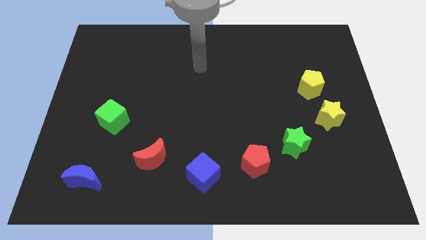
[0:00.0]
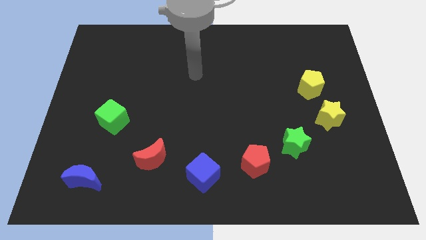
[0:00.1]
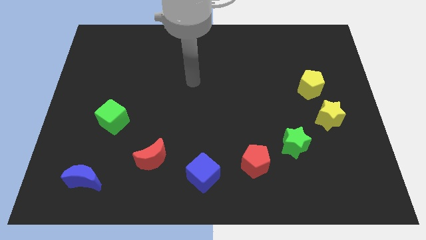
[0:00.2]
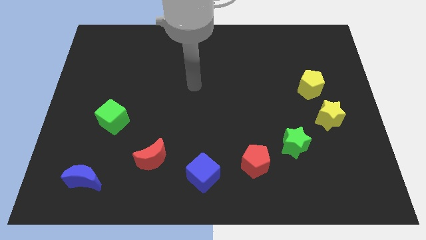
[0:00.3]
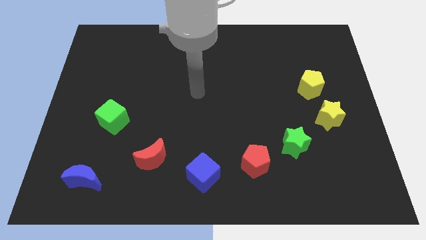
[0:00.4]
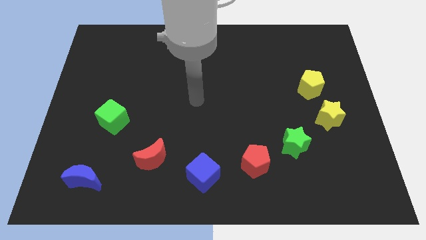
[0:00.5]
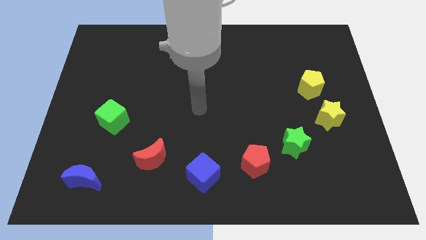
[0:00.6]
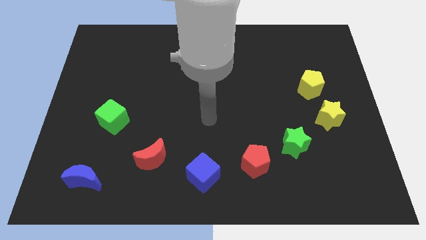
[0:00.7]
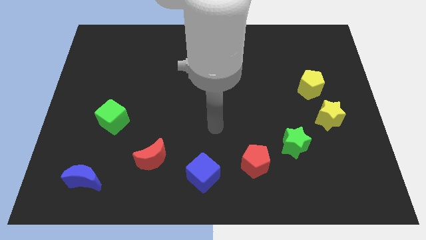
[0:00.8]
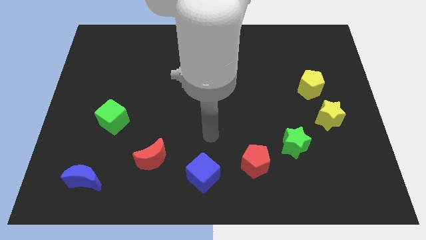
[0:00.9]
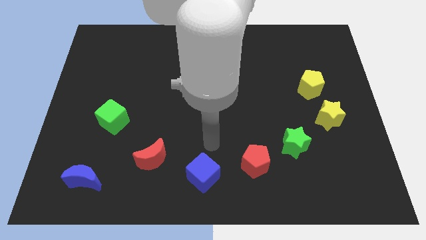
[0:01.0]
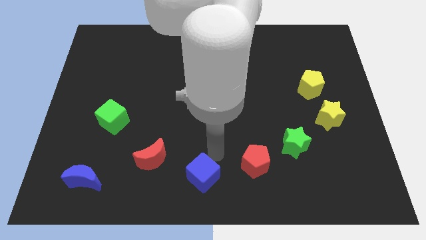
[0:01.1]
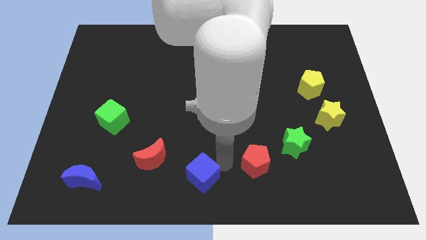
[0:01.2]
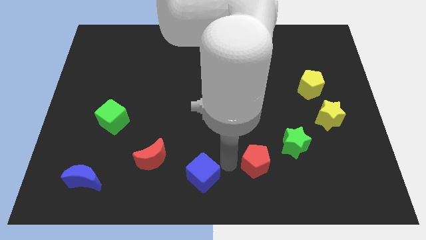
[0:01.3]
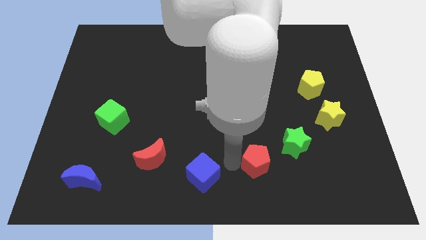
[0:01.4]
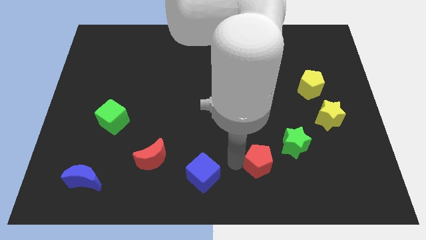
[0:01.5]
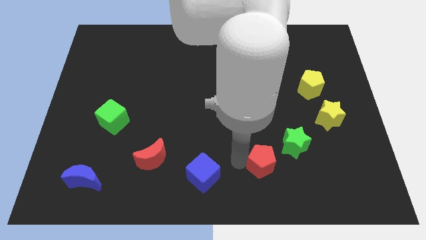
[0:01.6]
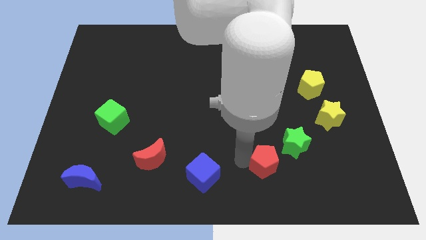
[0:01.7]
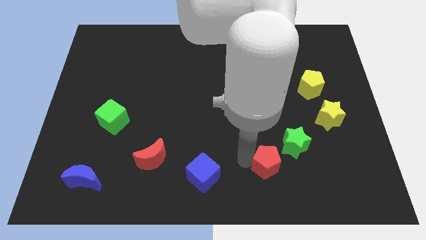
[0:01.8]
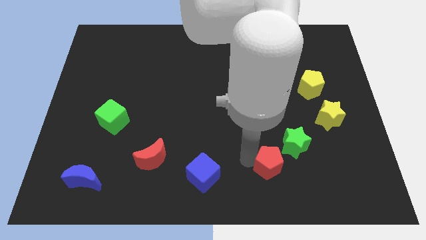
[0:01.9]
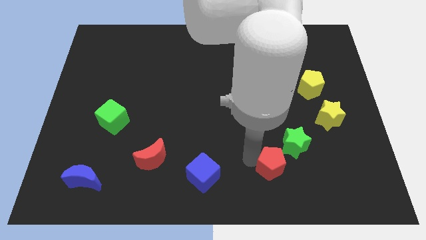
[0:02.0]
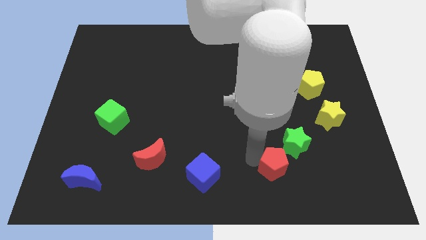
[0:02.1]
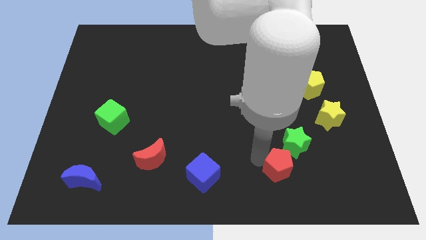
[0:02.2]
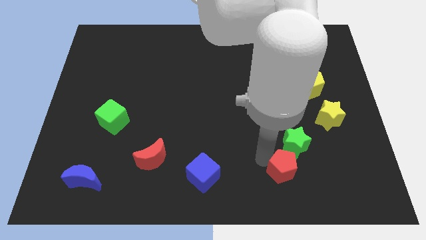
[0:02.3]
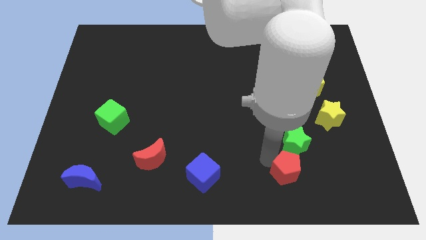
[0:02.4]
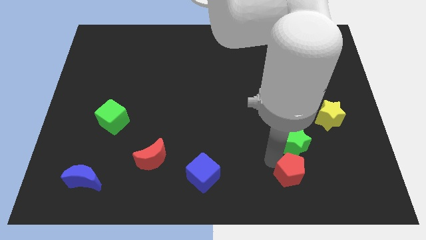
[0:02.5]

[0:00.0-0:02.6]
move the red pentagon slightly right

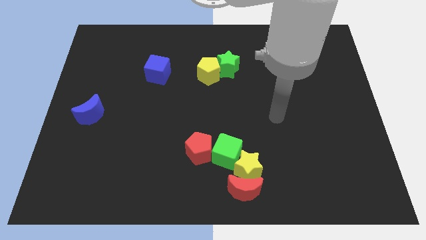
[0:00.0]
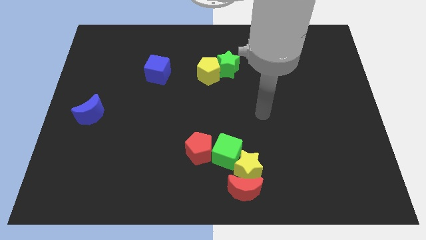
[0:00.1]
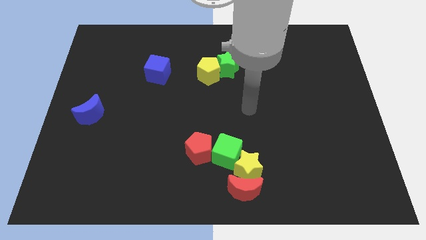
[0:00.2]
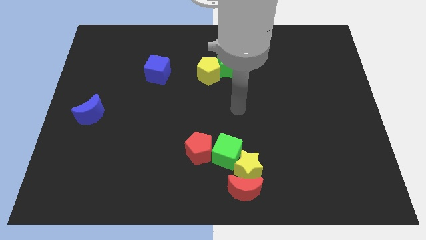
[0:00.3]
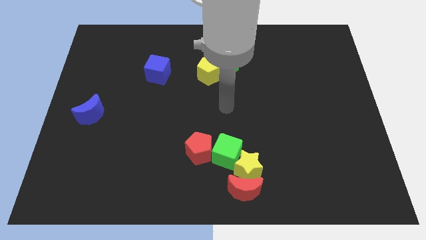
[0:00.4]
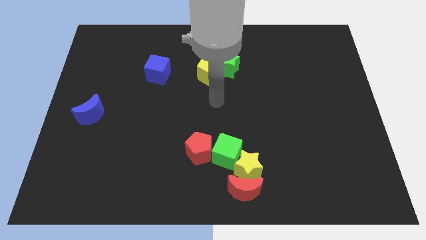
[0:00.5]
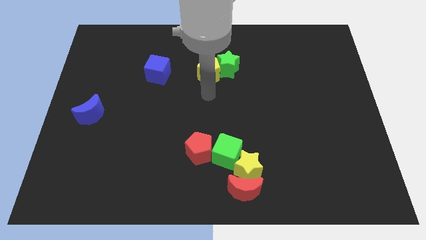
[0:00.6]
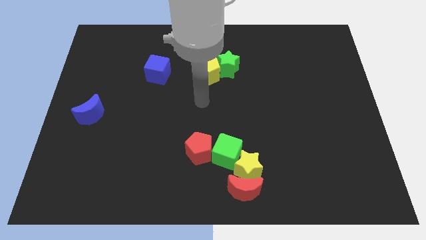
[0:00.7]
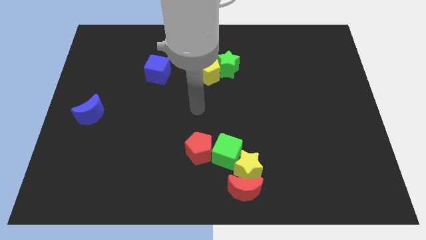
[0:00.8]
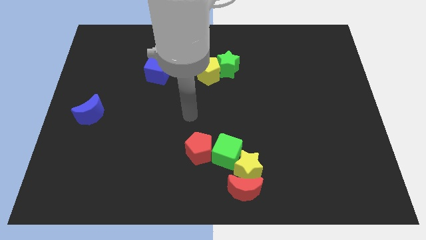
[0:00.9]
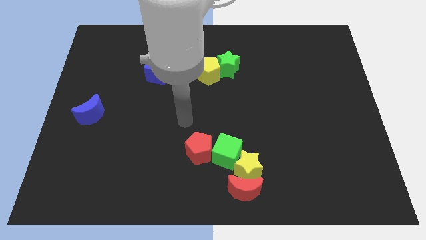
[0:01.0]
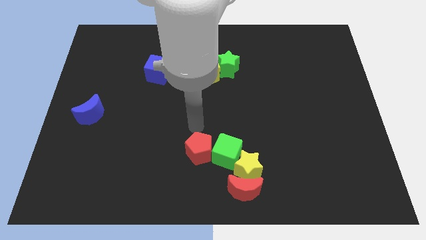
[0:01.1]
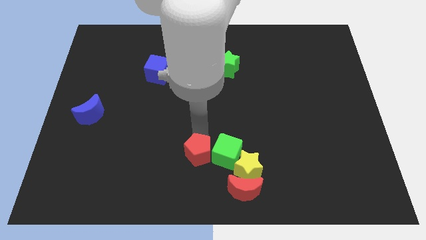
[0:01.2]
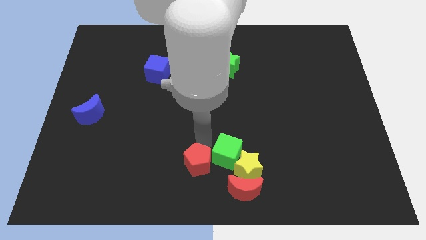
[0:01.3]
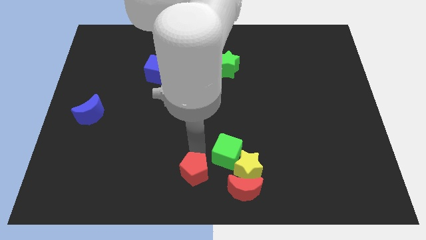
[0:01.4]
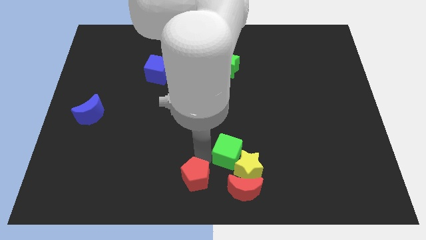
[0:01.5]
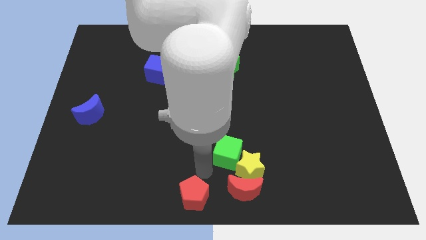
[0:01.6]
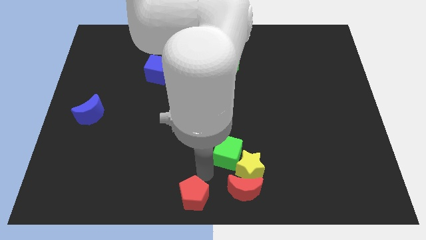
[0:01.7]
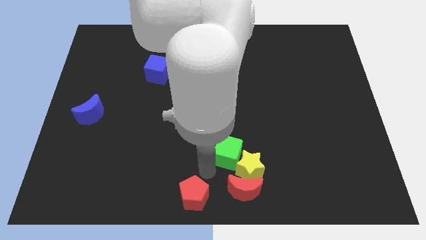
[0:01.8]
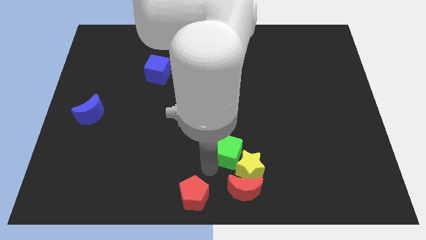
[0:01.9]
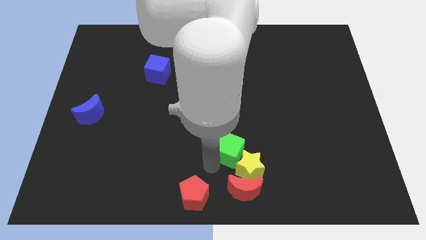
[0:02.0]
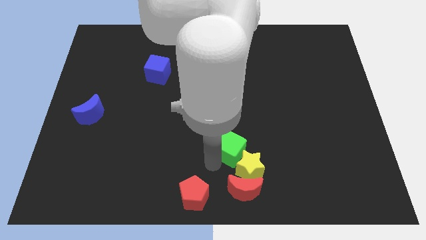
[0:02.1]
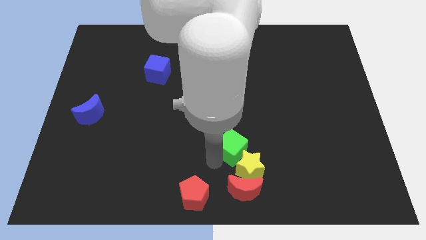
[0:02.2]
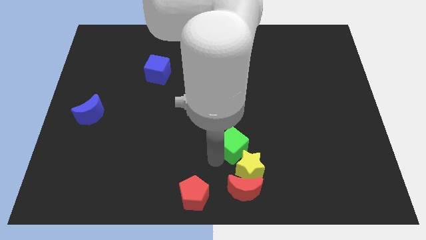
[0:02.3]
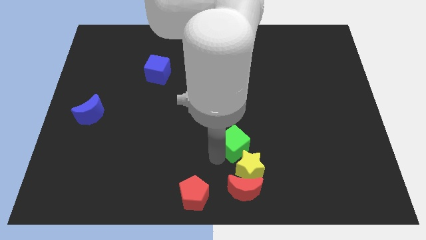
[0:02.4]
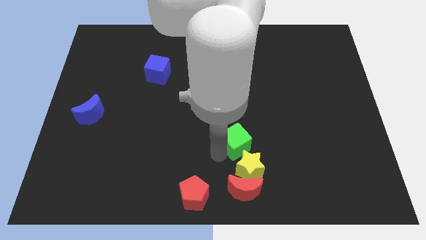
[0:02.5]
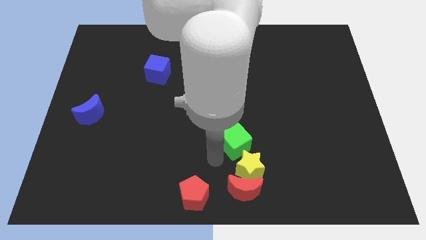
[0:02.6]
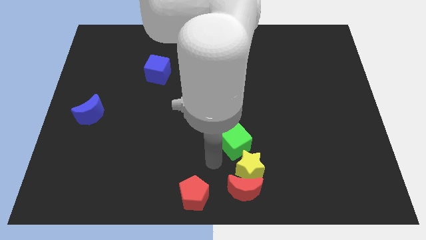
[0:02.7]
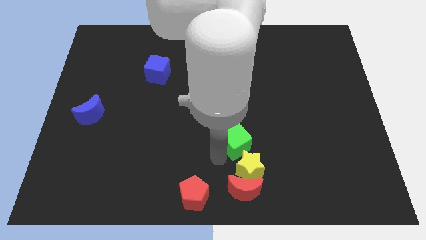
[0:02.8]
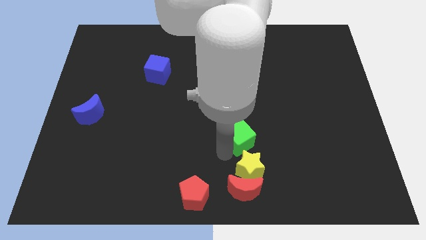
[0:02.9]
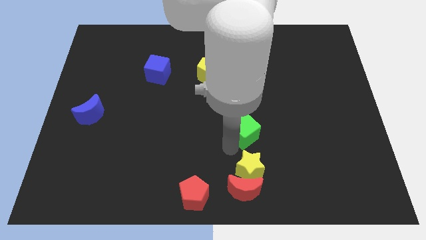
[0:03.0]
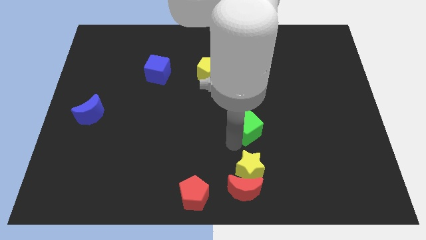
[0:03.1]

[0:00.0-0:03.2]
slightly slide the green cube up and right

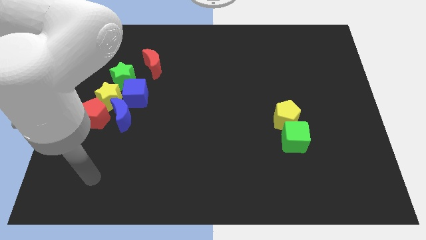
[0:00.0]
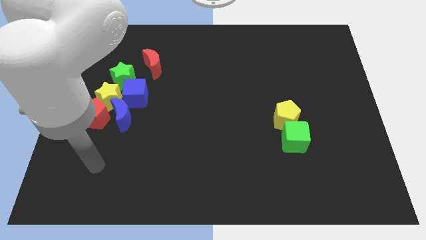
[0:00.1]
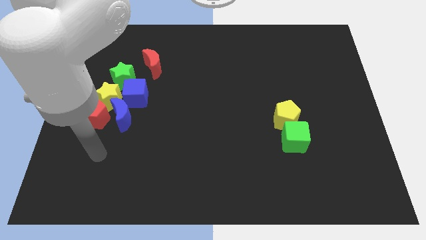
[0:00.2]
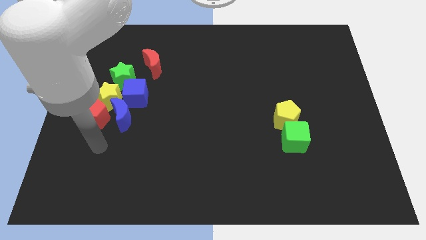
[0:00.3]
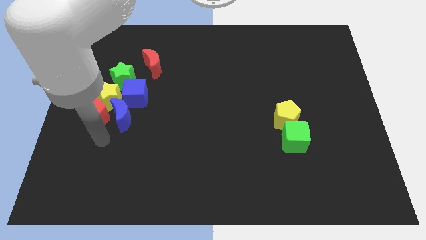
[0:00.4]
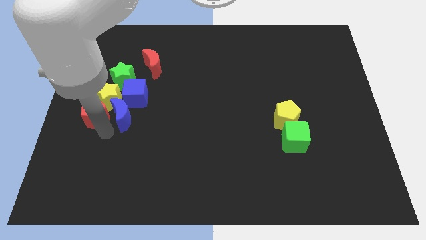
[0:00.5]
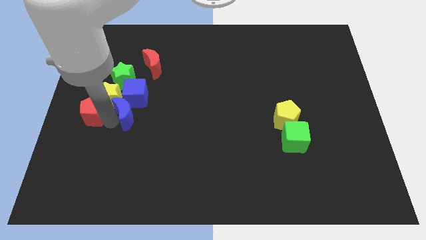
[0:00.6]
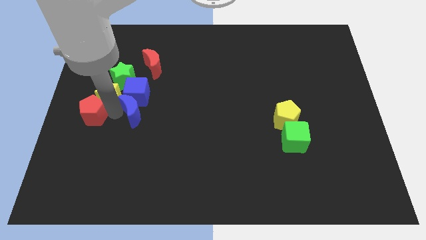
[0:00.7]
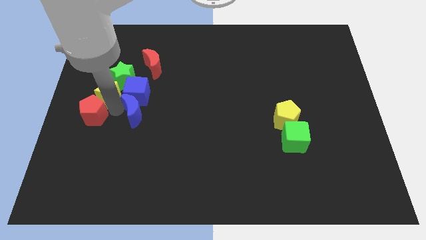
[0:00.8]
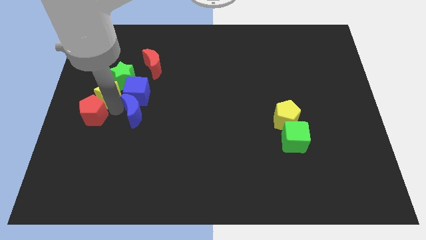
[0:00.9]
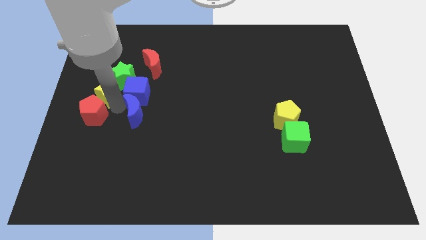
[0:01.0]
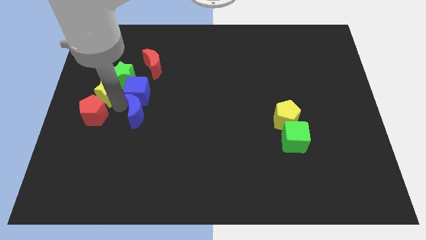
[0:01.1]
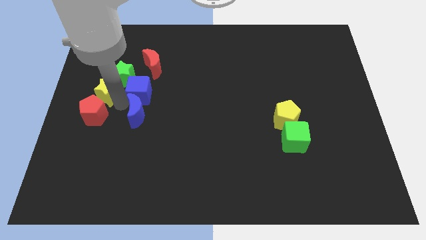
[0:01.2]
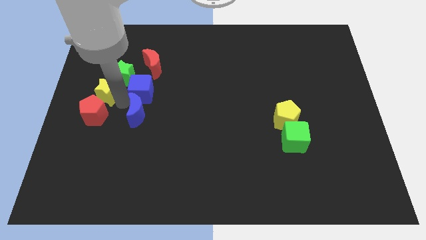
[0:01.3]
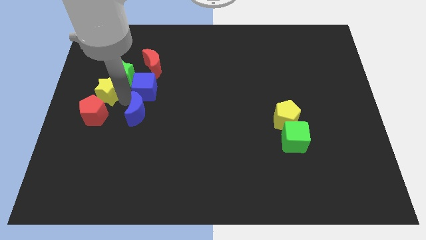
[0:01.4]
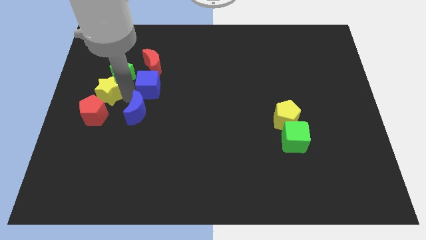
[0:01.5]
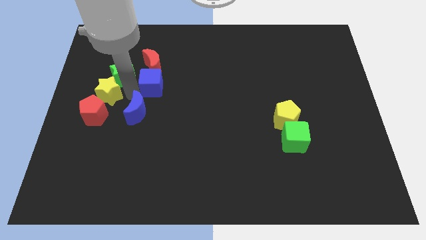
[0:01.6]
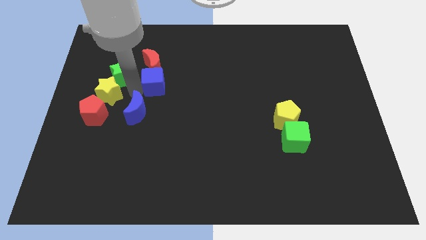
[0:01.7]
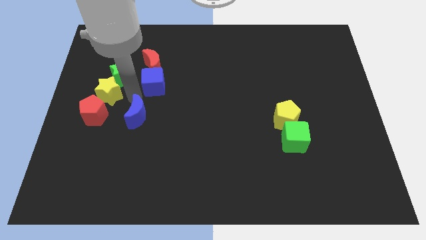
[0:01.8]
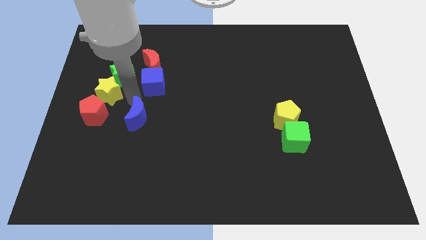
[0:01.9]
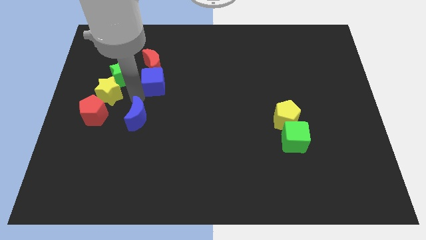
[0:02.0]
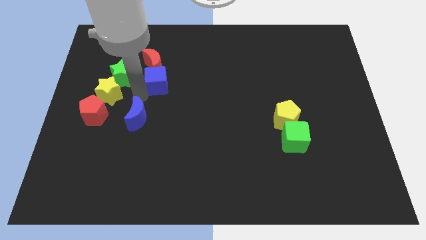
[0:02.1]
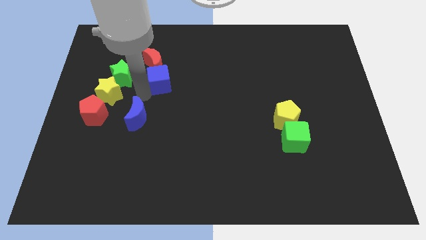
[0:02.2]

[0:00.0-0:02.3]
slightly move the blue cube diagonally up and right
